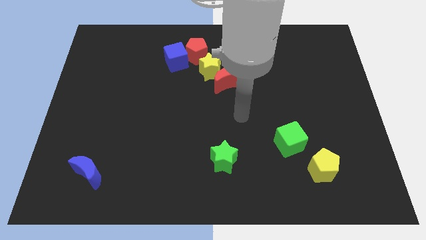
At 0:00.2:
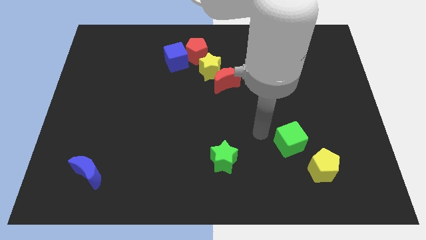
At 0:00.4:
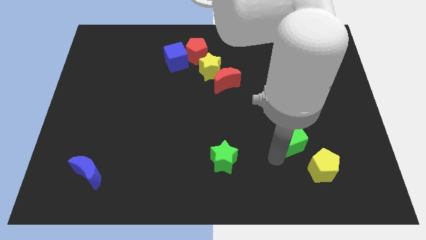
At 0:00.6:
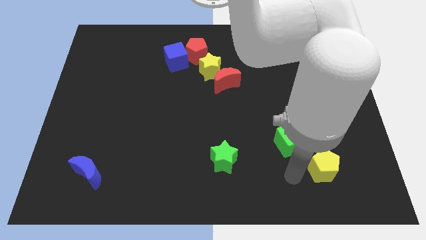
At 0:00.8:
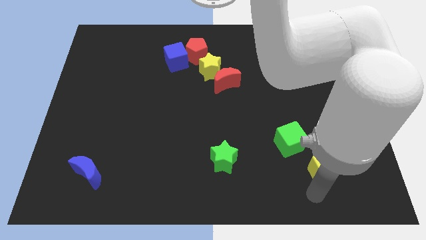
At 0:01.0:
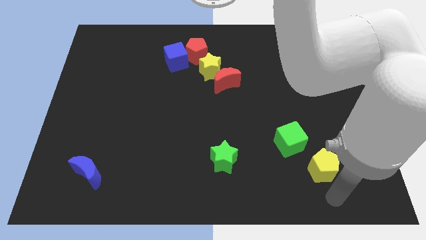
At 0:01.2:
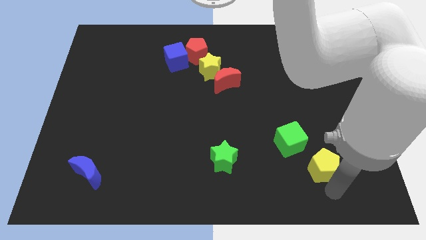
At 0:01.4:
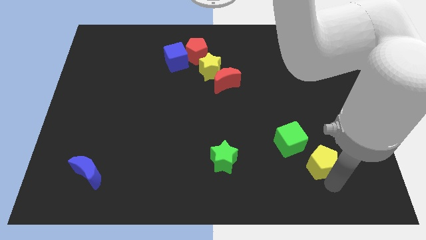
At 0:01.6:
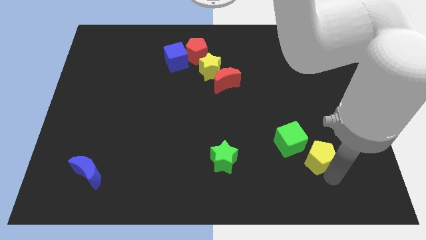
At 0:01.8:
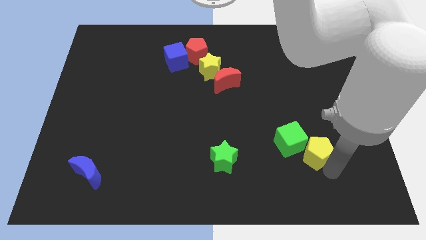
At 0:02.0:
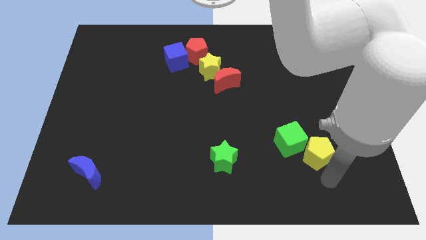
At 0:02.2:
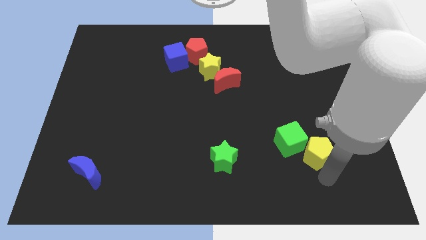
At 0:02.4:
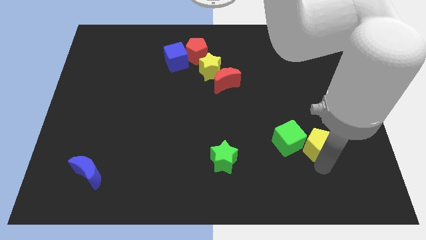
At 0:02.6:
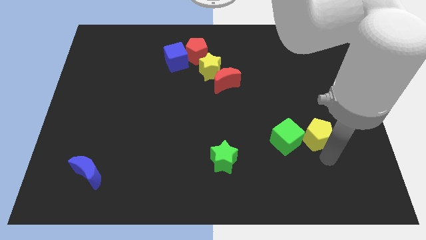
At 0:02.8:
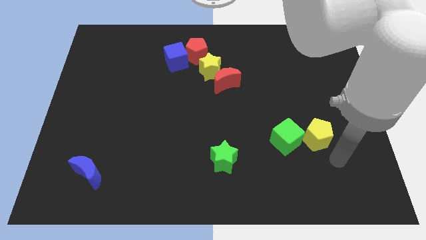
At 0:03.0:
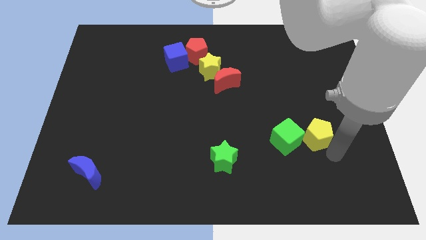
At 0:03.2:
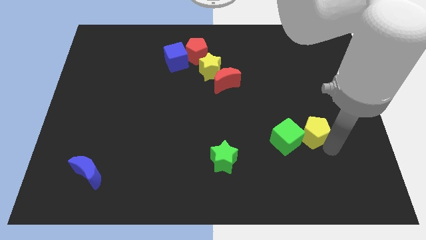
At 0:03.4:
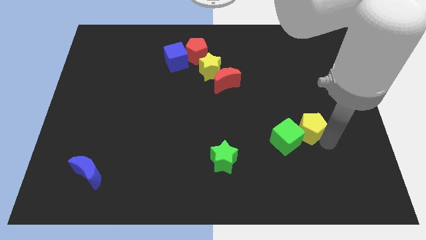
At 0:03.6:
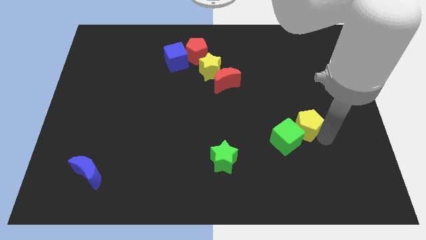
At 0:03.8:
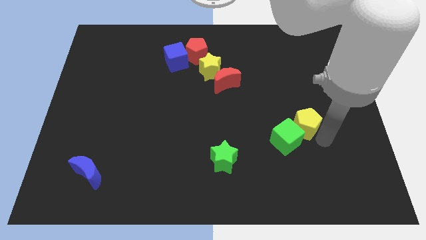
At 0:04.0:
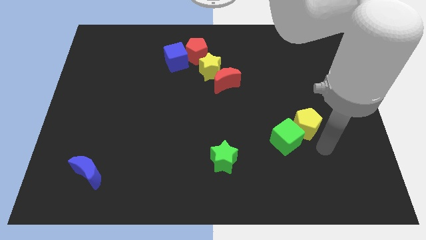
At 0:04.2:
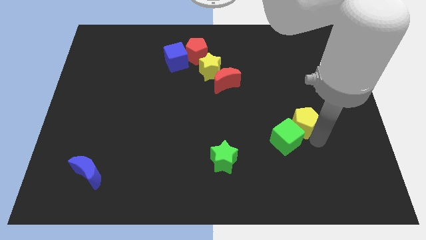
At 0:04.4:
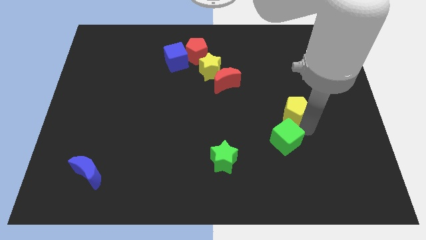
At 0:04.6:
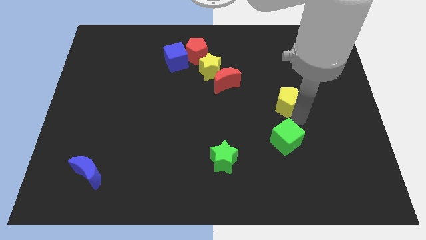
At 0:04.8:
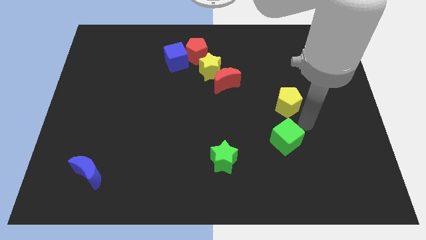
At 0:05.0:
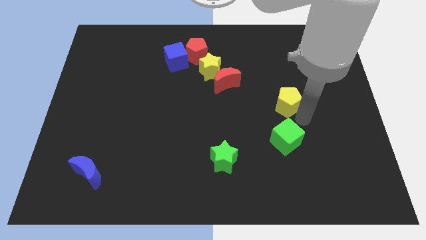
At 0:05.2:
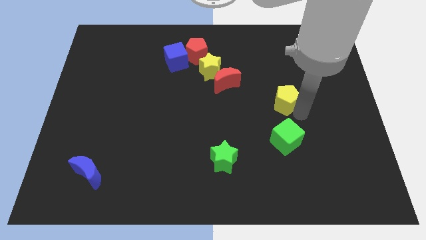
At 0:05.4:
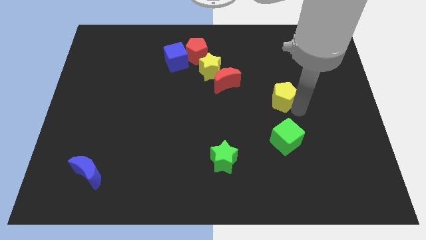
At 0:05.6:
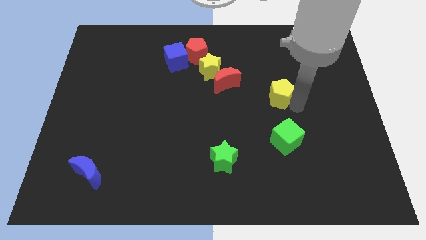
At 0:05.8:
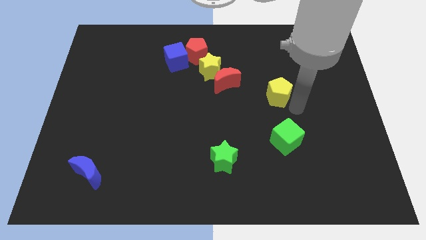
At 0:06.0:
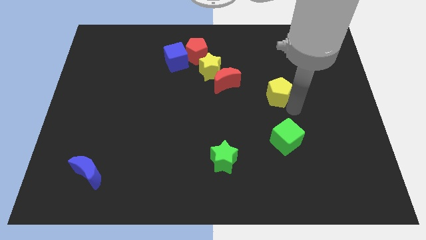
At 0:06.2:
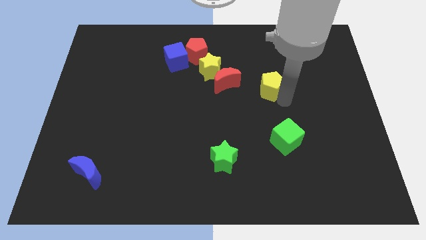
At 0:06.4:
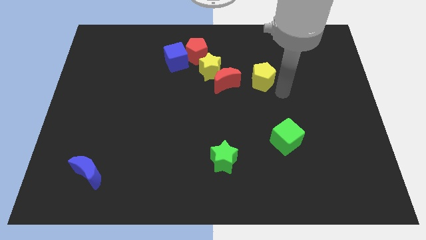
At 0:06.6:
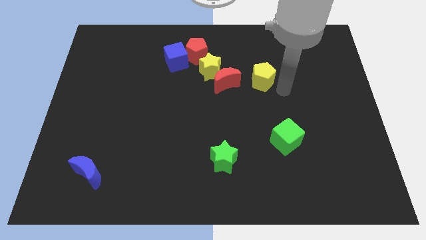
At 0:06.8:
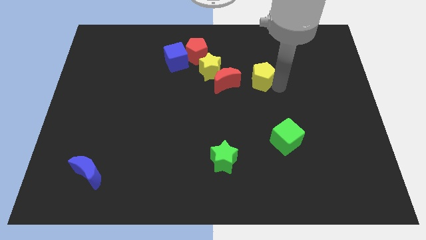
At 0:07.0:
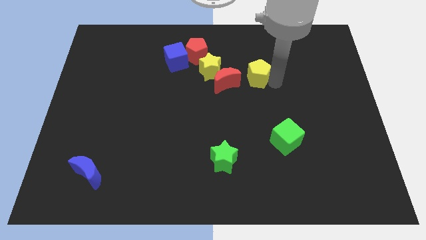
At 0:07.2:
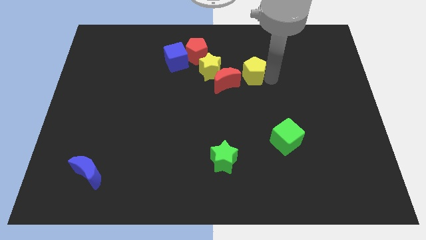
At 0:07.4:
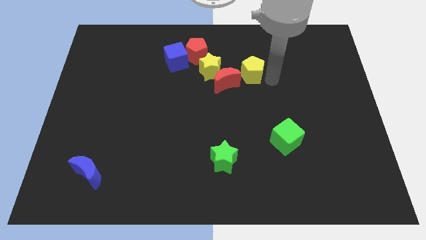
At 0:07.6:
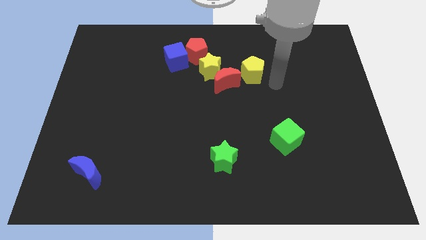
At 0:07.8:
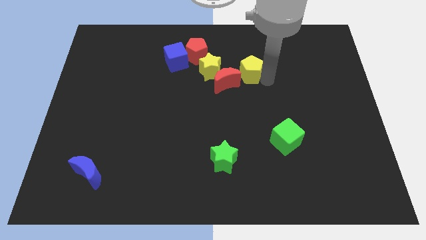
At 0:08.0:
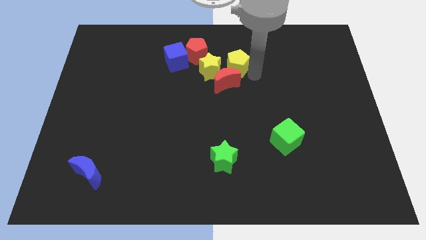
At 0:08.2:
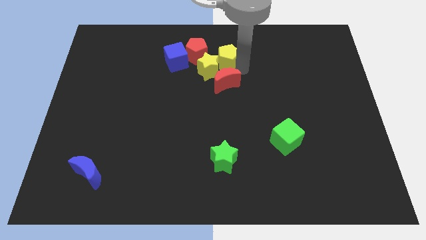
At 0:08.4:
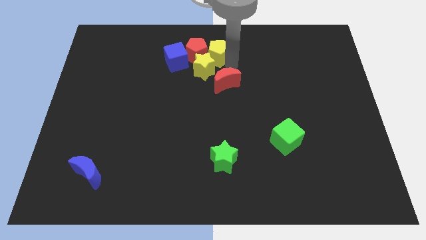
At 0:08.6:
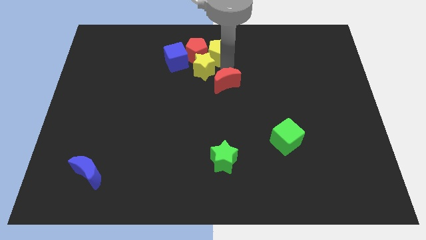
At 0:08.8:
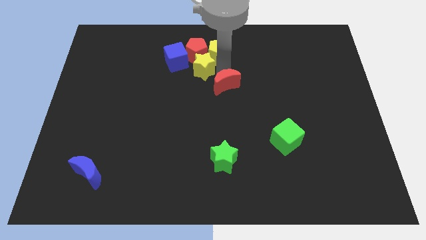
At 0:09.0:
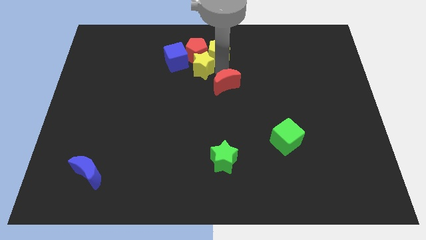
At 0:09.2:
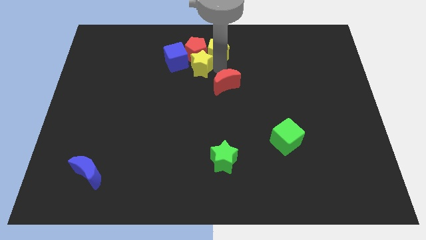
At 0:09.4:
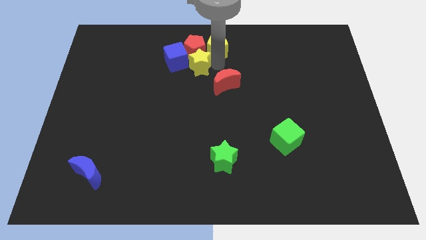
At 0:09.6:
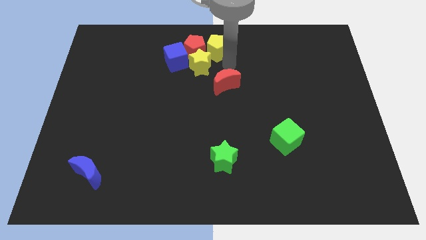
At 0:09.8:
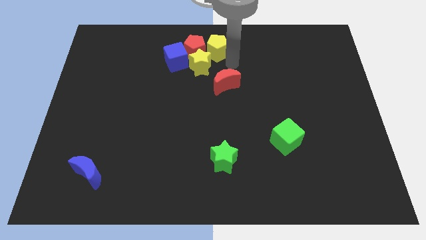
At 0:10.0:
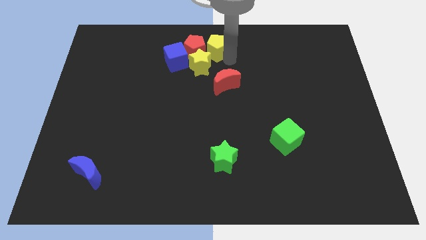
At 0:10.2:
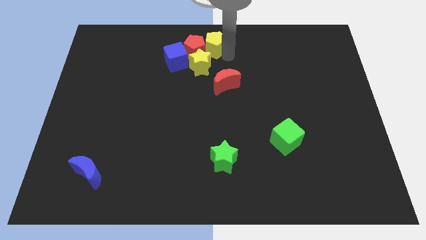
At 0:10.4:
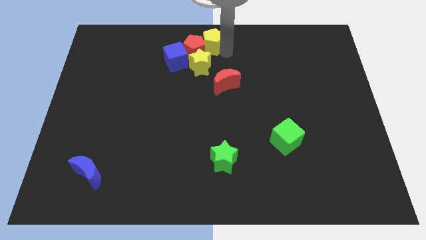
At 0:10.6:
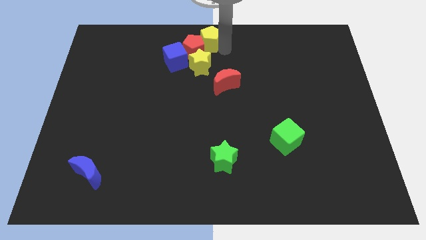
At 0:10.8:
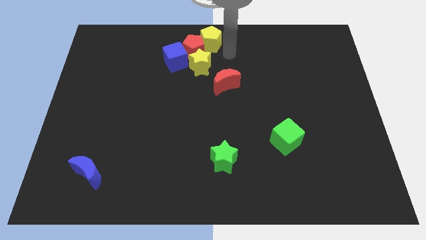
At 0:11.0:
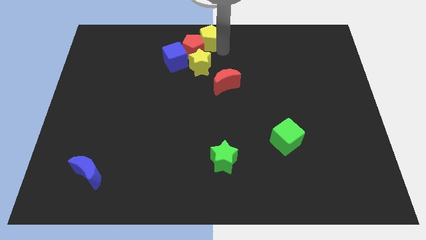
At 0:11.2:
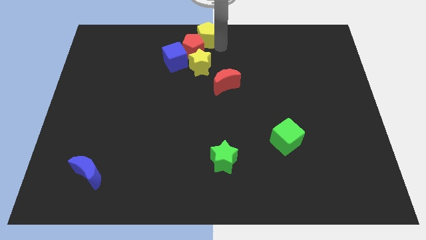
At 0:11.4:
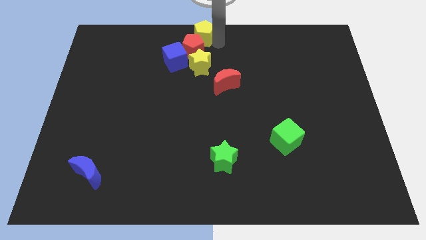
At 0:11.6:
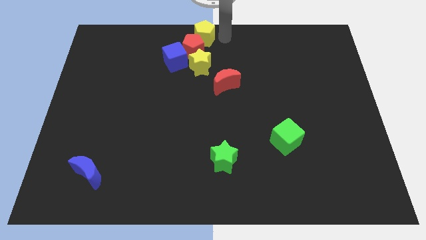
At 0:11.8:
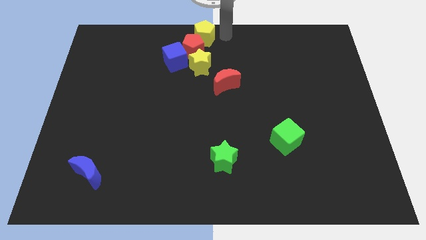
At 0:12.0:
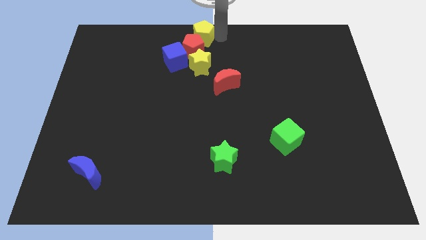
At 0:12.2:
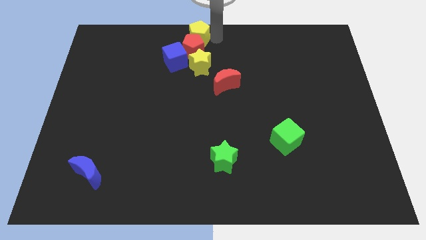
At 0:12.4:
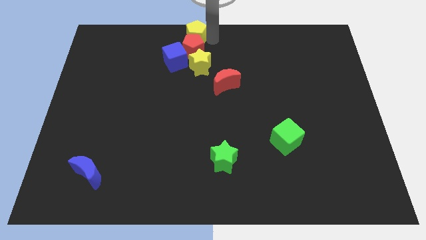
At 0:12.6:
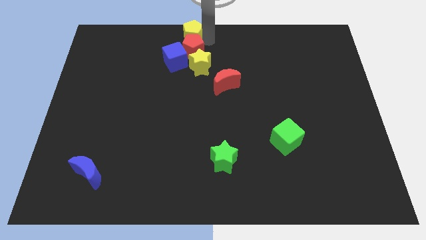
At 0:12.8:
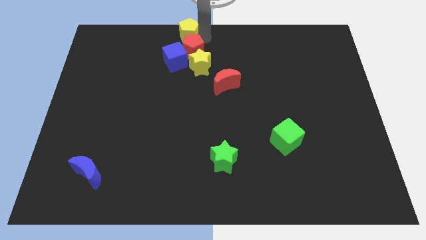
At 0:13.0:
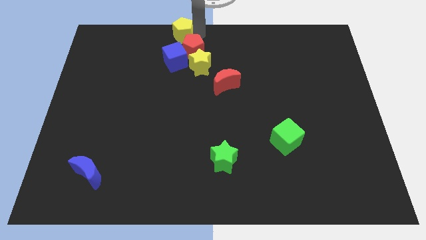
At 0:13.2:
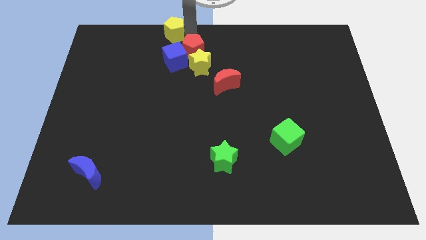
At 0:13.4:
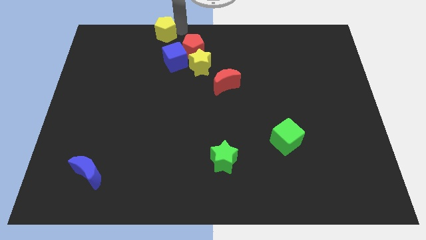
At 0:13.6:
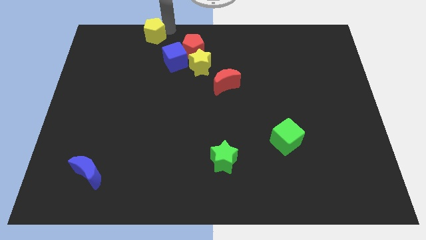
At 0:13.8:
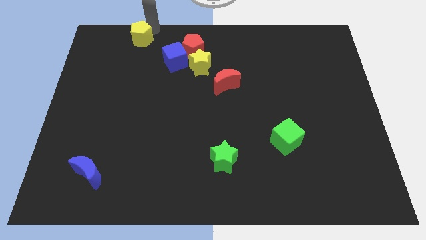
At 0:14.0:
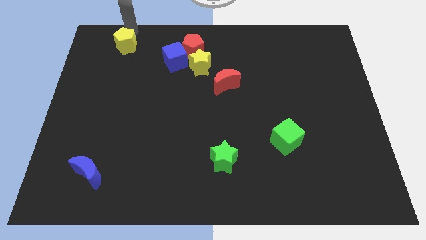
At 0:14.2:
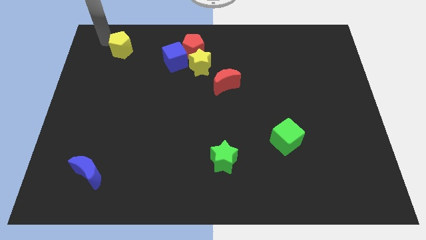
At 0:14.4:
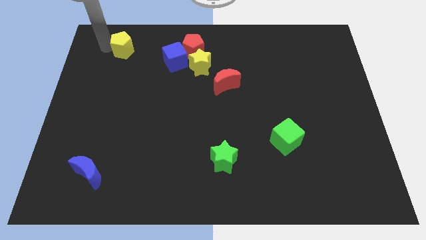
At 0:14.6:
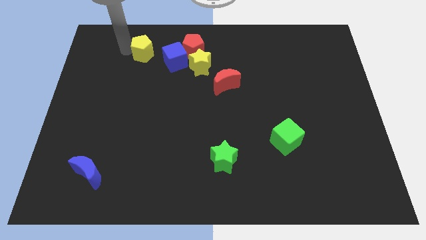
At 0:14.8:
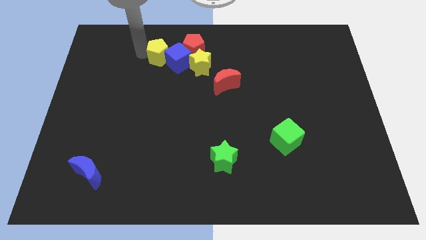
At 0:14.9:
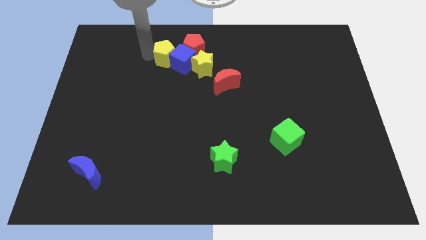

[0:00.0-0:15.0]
push the yellow pentagon diagonally up and to the left of the yellow star
